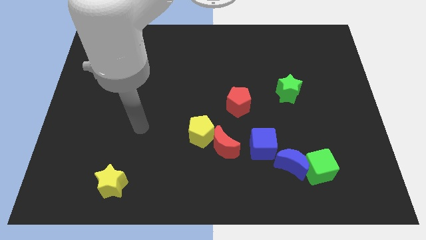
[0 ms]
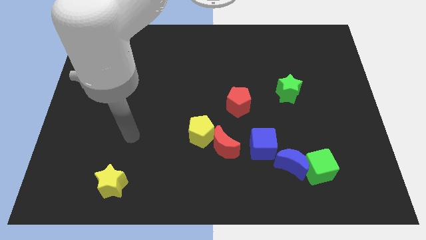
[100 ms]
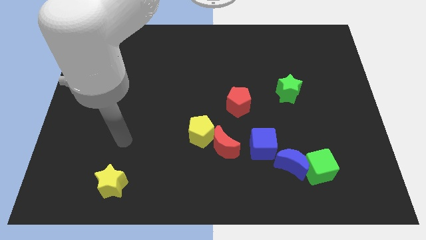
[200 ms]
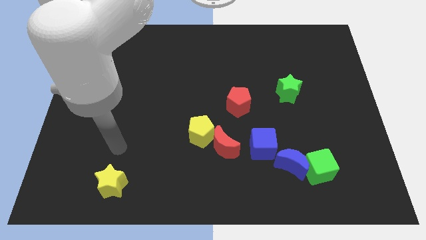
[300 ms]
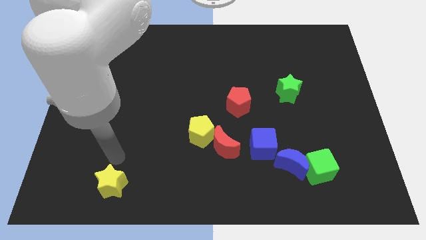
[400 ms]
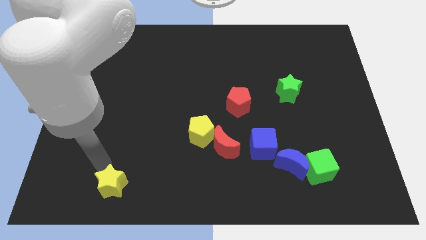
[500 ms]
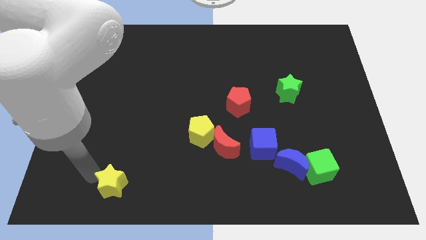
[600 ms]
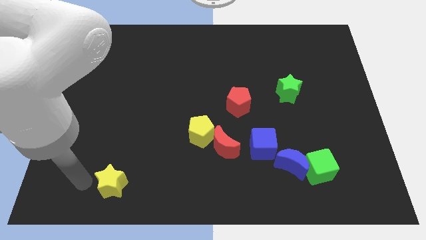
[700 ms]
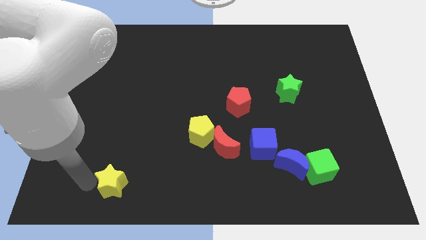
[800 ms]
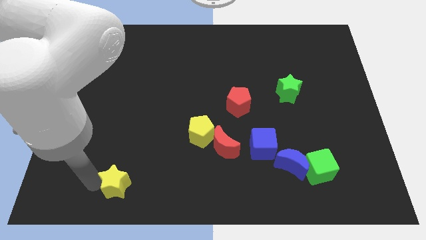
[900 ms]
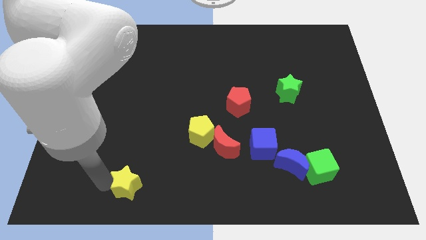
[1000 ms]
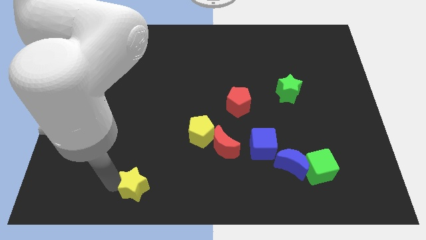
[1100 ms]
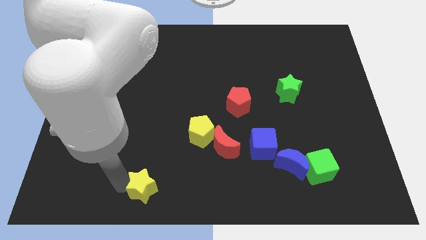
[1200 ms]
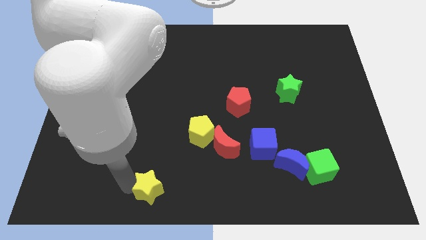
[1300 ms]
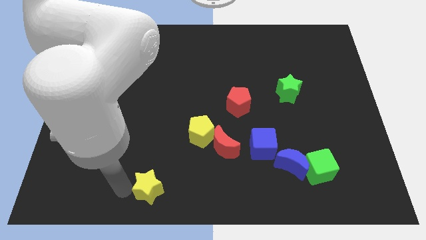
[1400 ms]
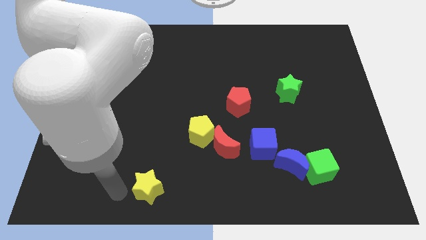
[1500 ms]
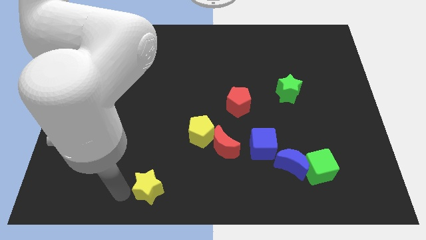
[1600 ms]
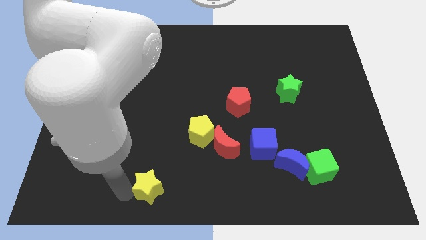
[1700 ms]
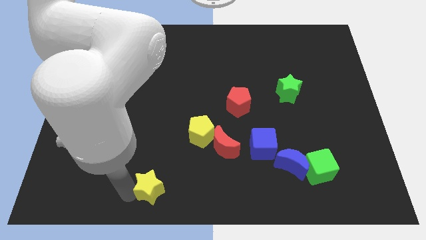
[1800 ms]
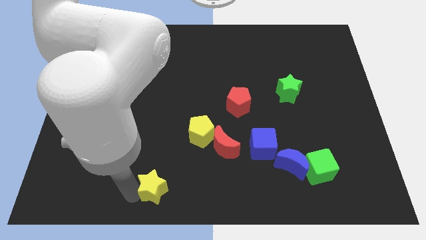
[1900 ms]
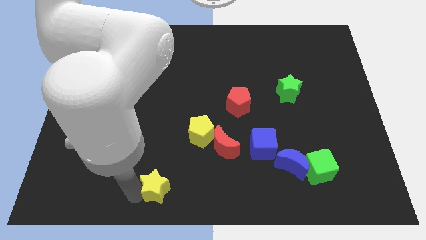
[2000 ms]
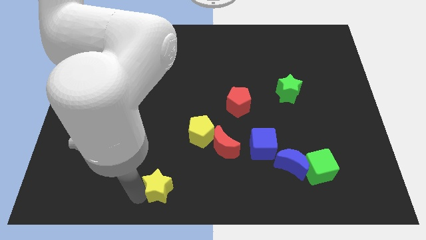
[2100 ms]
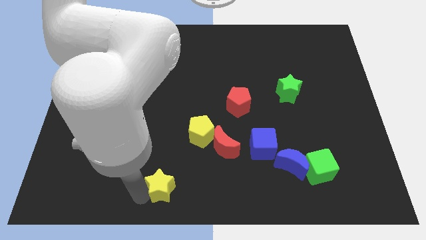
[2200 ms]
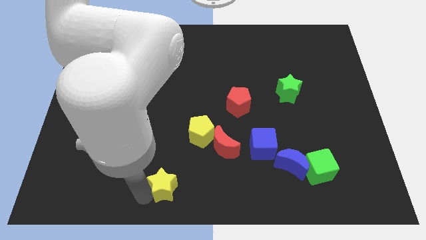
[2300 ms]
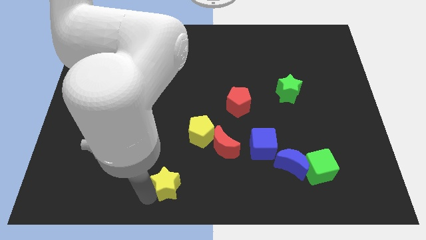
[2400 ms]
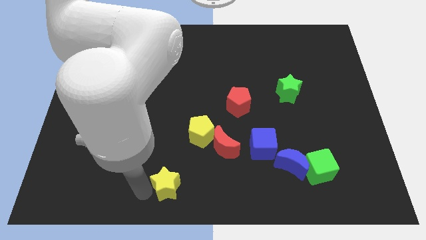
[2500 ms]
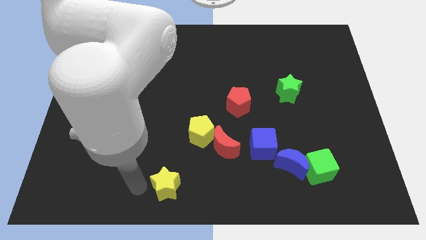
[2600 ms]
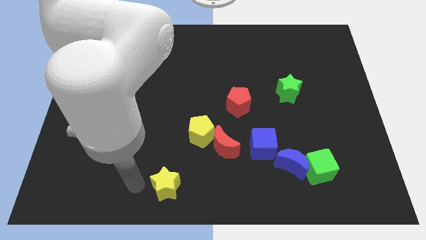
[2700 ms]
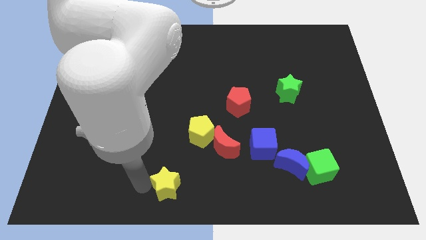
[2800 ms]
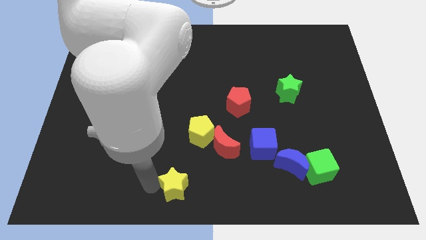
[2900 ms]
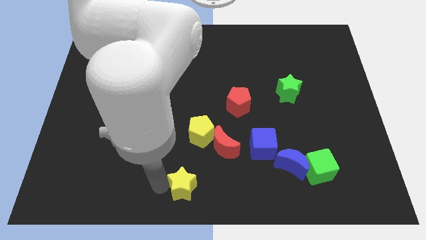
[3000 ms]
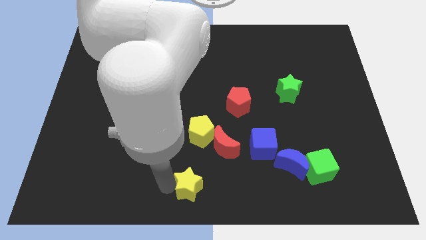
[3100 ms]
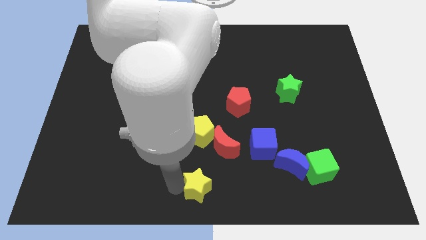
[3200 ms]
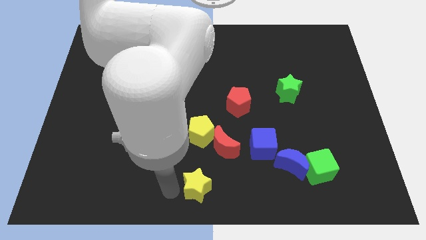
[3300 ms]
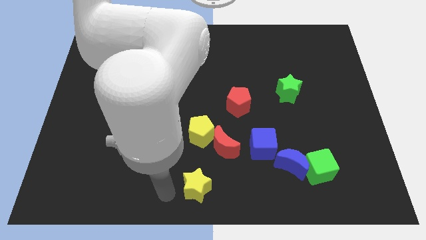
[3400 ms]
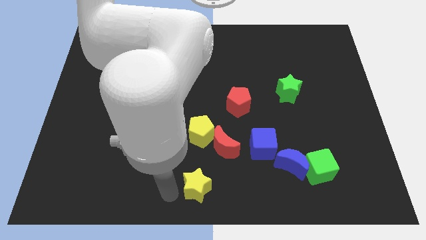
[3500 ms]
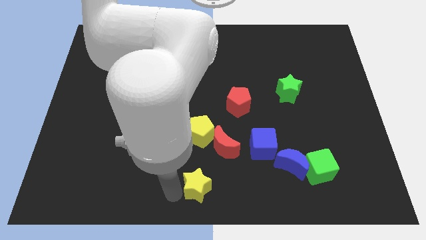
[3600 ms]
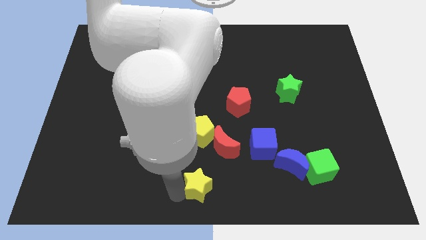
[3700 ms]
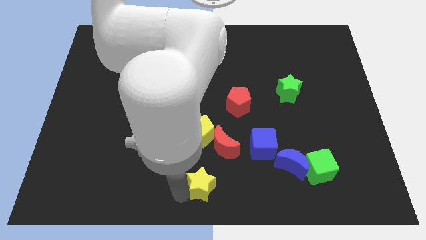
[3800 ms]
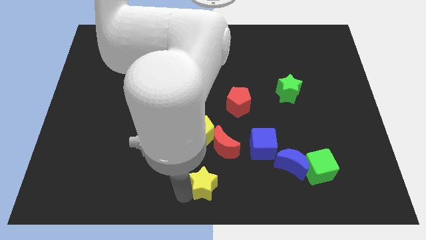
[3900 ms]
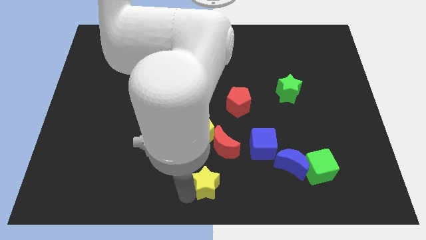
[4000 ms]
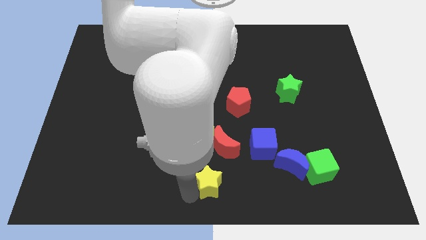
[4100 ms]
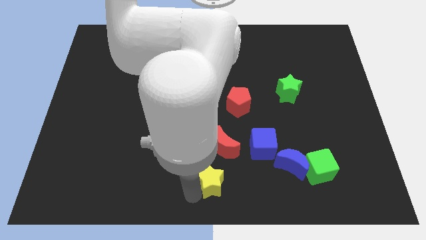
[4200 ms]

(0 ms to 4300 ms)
slide the yellow star right

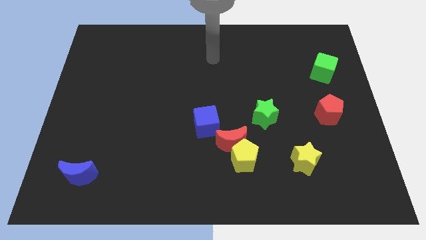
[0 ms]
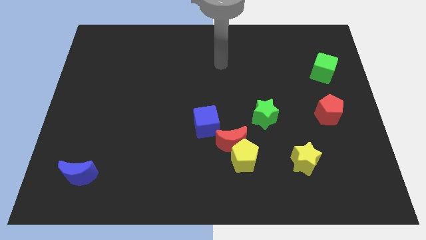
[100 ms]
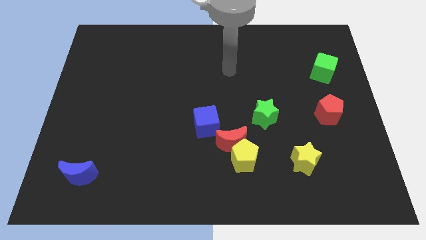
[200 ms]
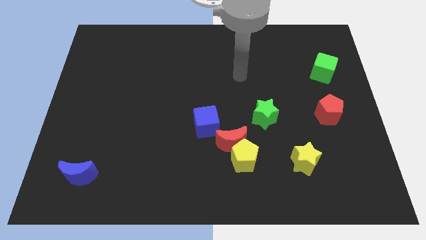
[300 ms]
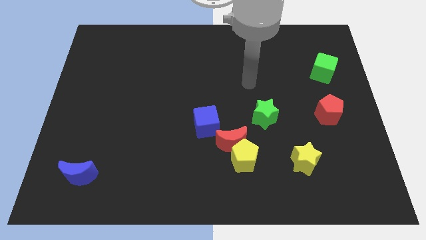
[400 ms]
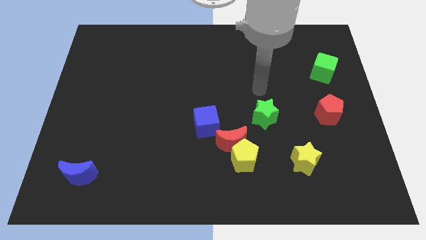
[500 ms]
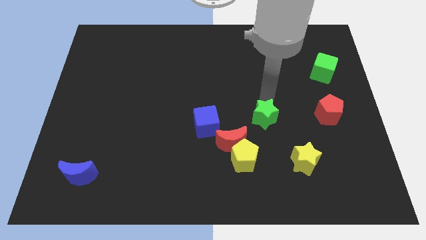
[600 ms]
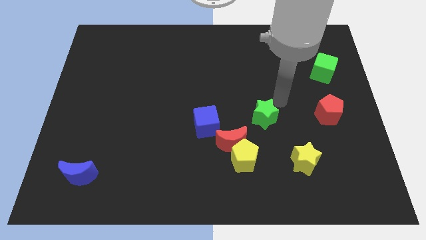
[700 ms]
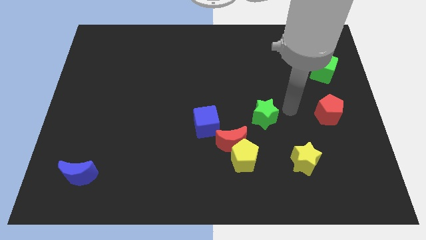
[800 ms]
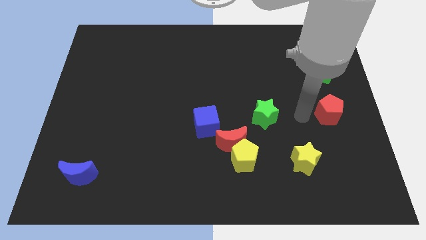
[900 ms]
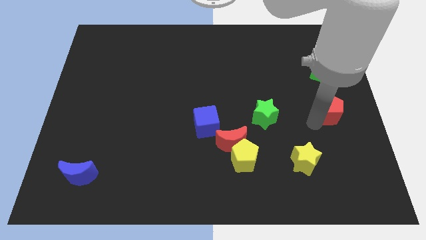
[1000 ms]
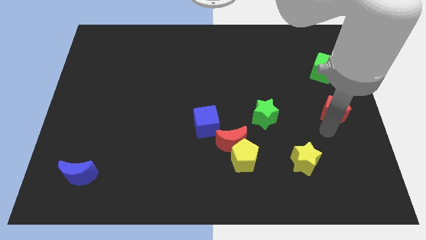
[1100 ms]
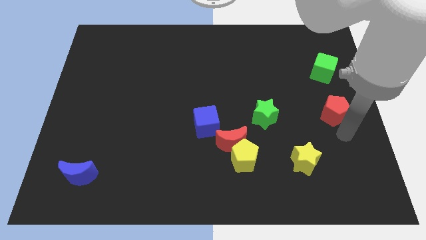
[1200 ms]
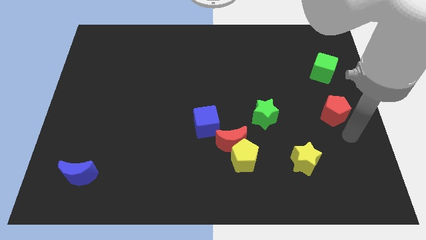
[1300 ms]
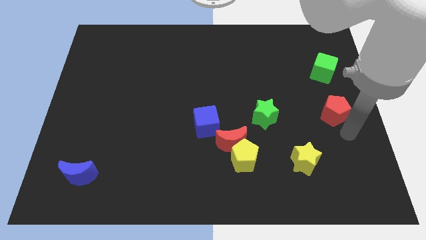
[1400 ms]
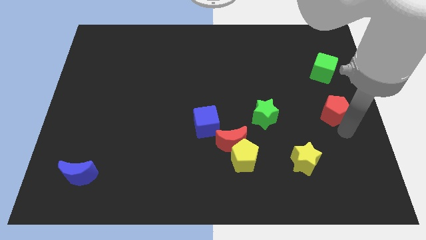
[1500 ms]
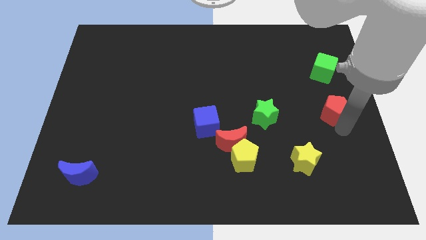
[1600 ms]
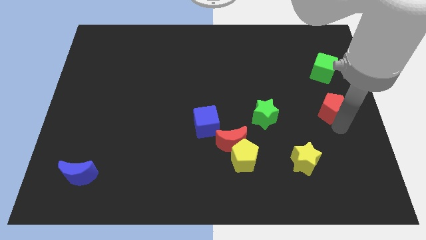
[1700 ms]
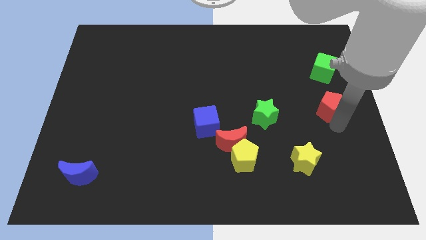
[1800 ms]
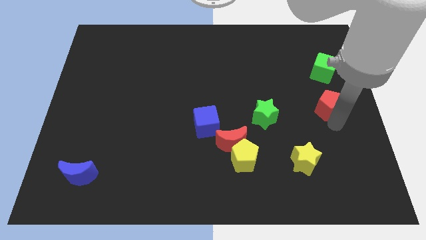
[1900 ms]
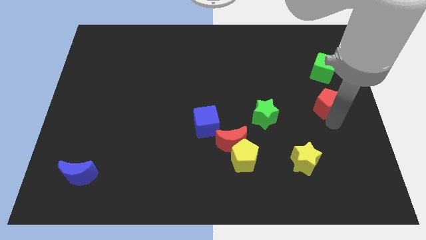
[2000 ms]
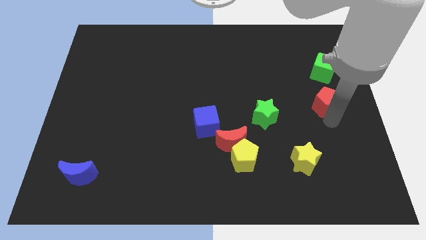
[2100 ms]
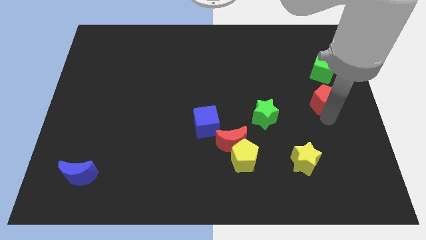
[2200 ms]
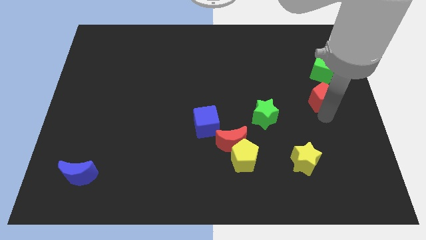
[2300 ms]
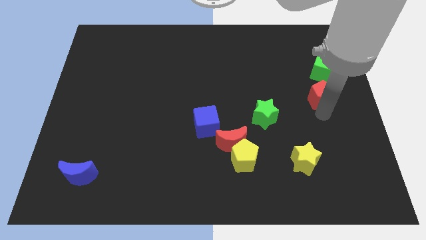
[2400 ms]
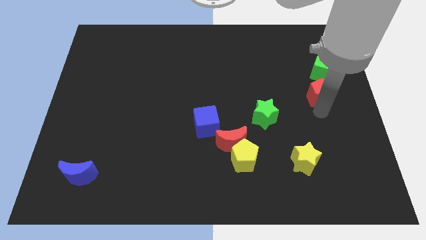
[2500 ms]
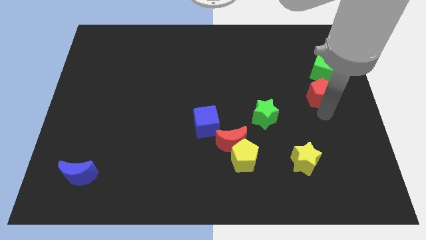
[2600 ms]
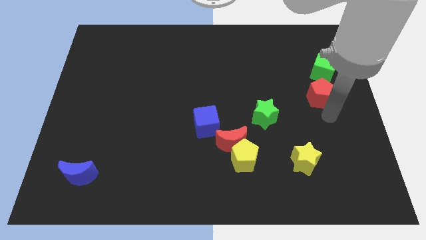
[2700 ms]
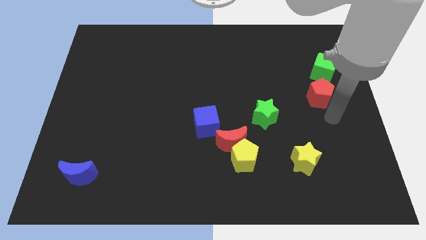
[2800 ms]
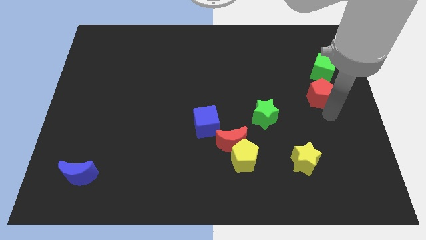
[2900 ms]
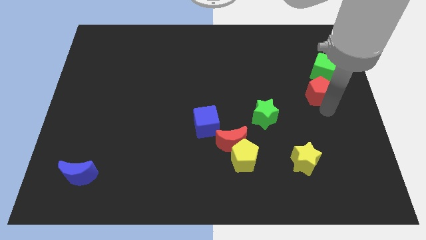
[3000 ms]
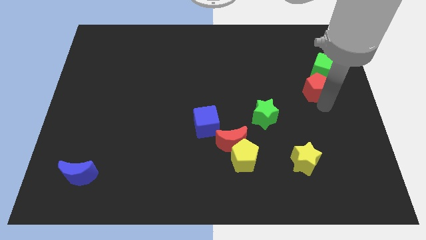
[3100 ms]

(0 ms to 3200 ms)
slightly move the red pentagon up

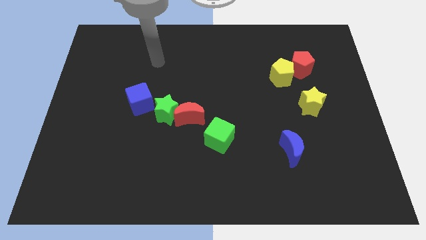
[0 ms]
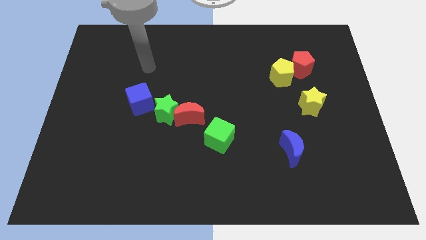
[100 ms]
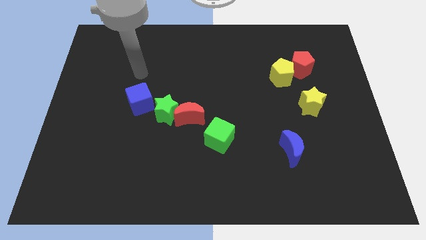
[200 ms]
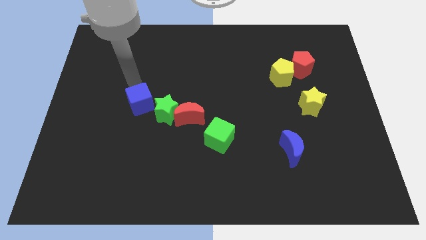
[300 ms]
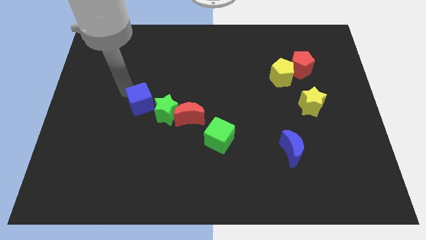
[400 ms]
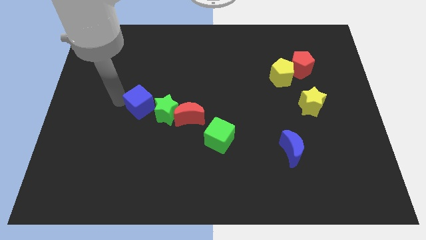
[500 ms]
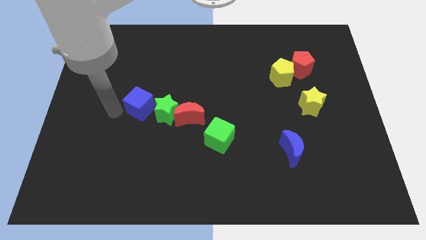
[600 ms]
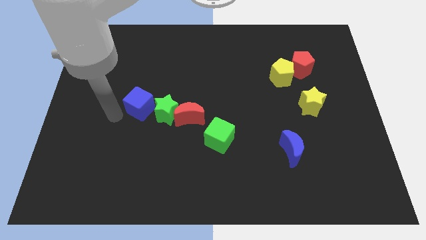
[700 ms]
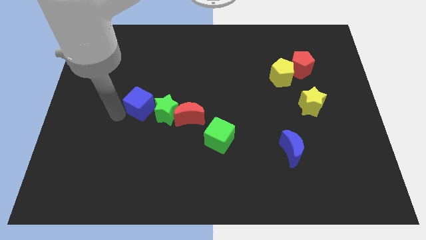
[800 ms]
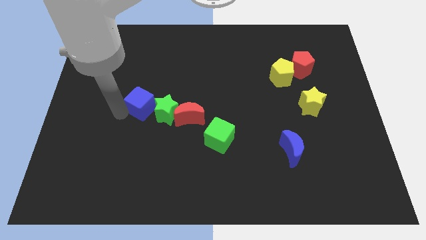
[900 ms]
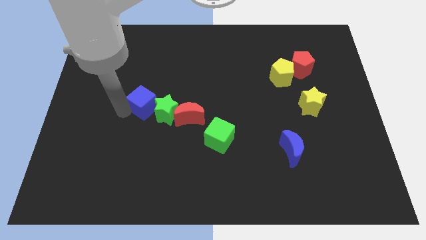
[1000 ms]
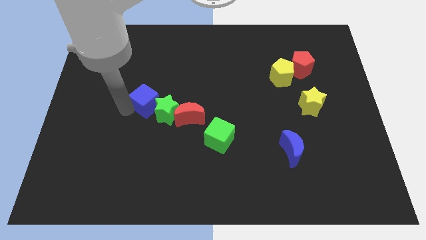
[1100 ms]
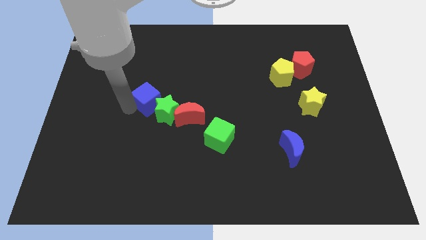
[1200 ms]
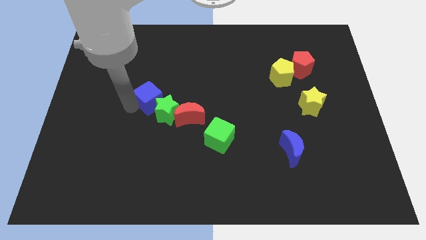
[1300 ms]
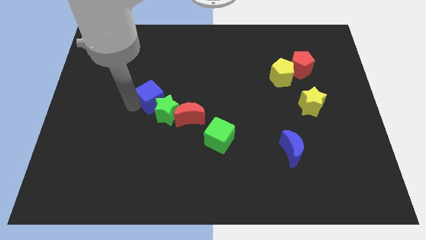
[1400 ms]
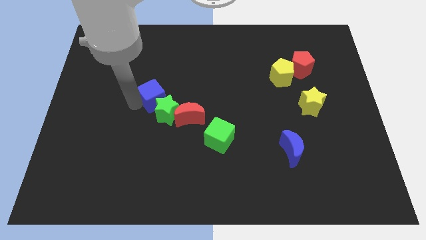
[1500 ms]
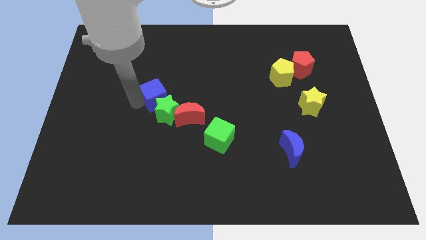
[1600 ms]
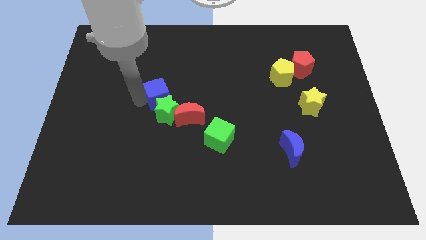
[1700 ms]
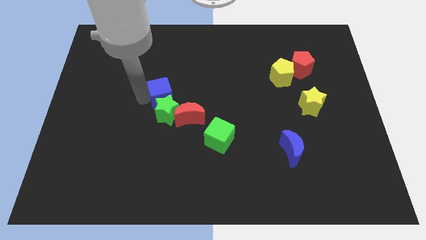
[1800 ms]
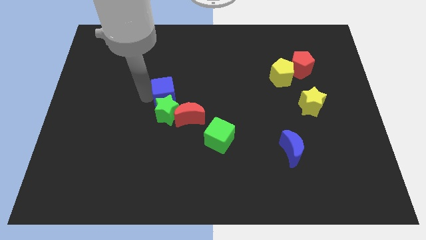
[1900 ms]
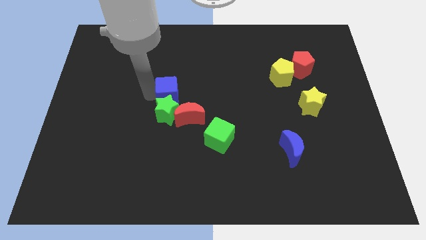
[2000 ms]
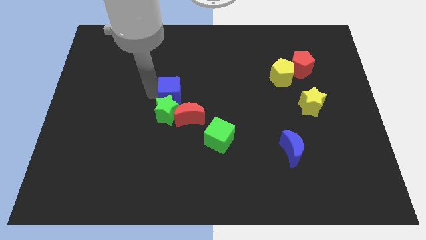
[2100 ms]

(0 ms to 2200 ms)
push the blue cube to the right somewhat
